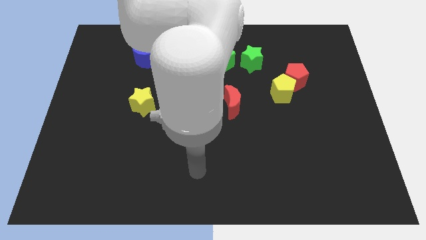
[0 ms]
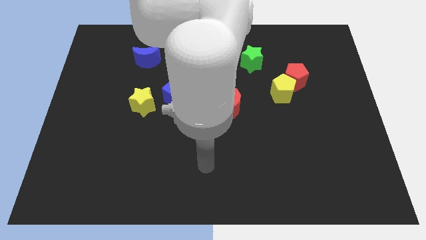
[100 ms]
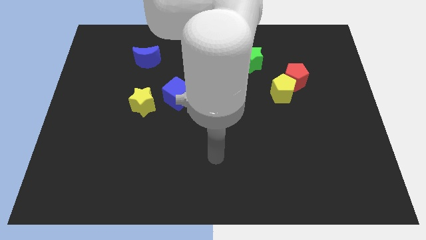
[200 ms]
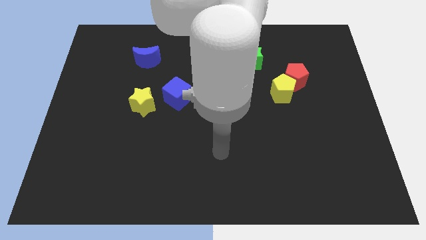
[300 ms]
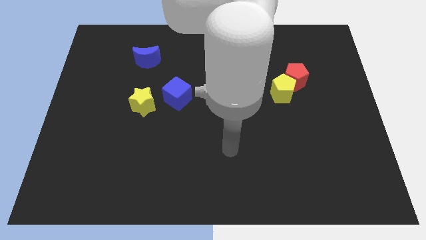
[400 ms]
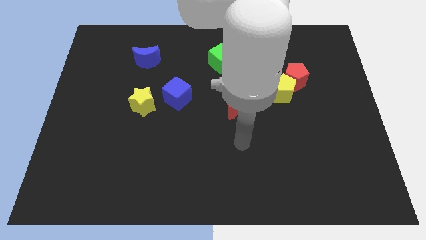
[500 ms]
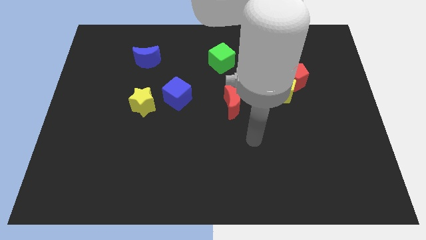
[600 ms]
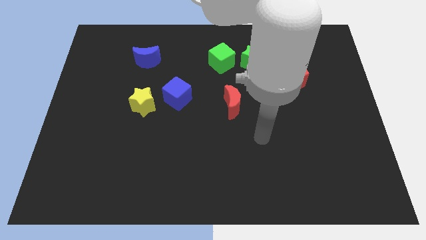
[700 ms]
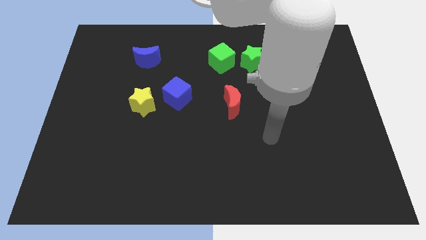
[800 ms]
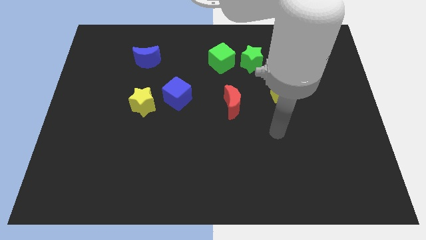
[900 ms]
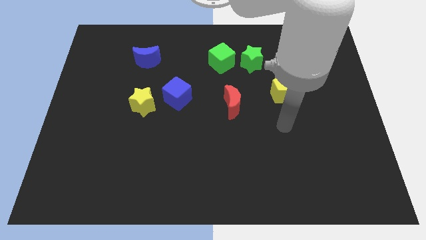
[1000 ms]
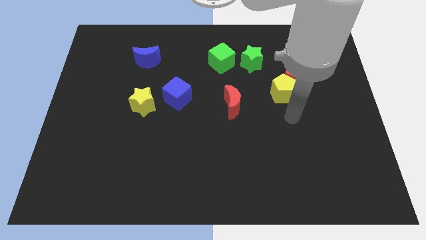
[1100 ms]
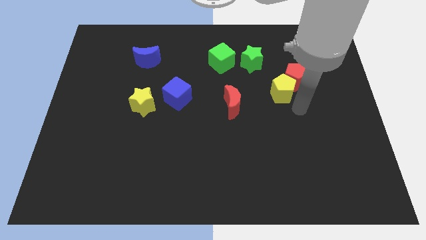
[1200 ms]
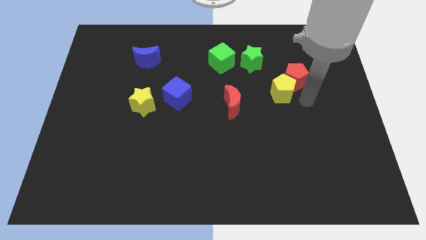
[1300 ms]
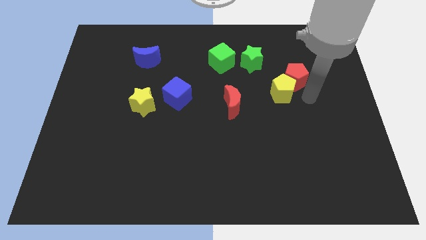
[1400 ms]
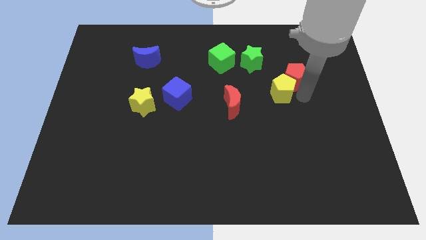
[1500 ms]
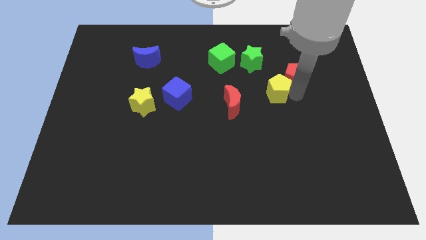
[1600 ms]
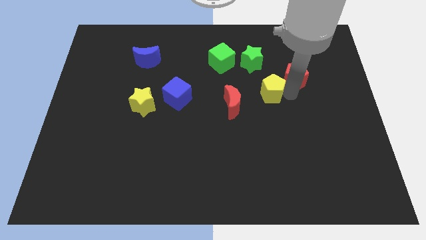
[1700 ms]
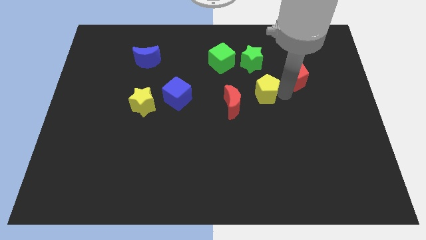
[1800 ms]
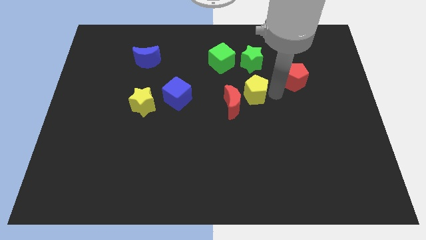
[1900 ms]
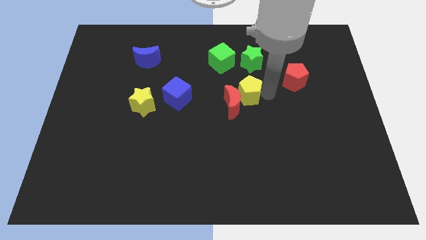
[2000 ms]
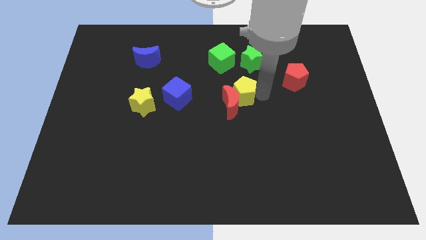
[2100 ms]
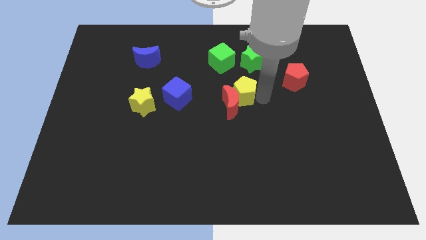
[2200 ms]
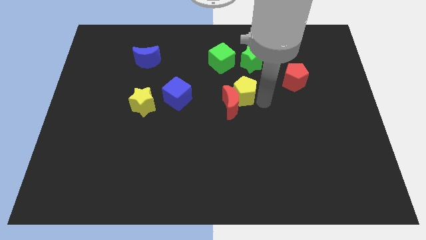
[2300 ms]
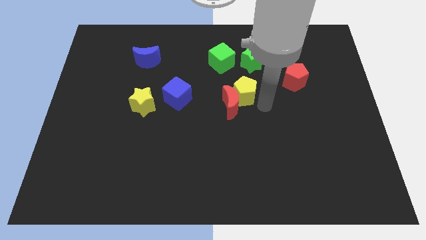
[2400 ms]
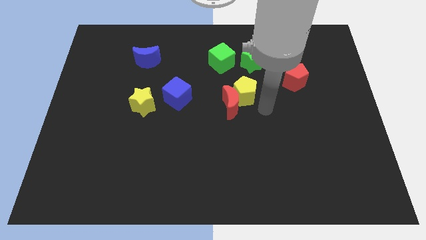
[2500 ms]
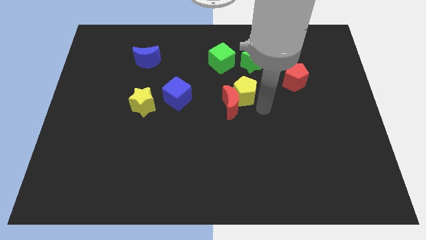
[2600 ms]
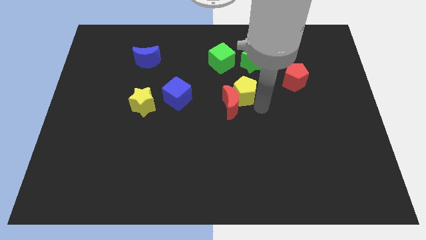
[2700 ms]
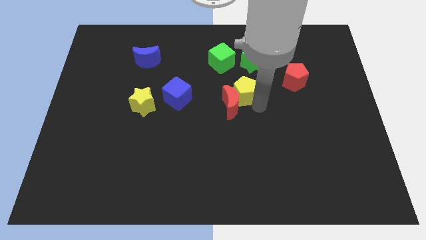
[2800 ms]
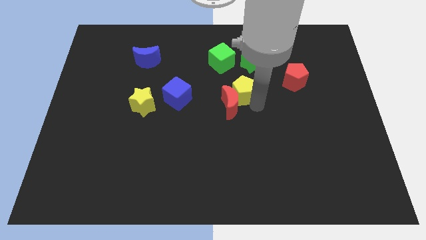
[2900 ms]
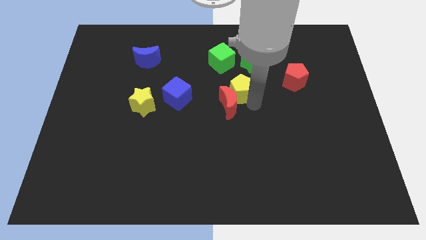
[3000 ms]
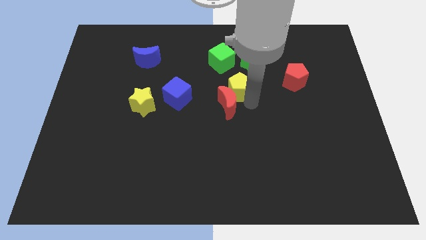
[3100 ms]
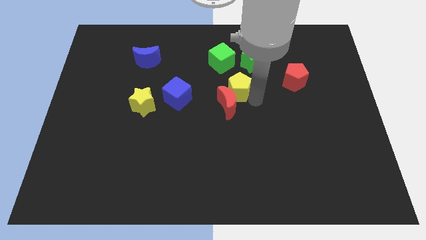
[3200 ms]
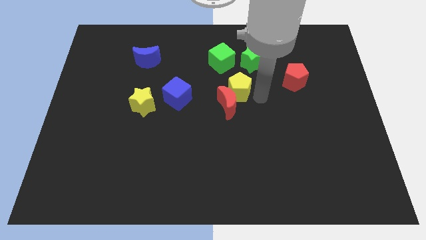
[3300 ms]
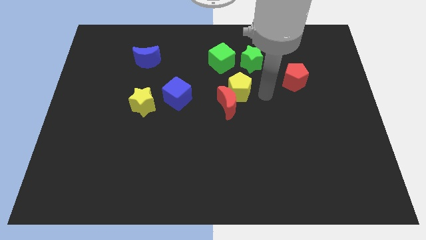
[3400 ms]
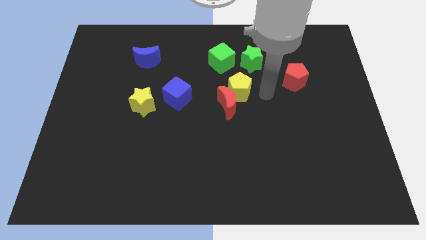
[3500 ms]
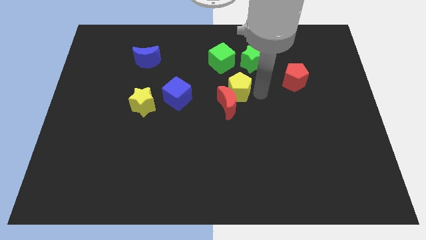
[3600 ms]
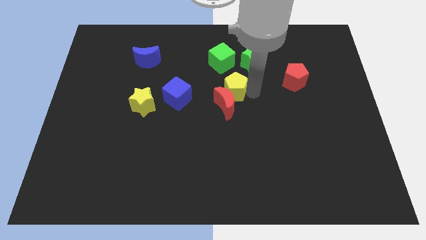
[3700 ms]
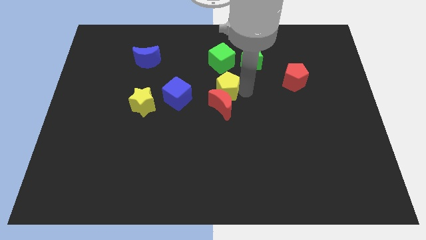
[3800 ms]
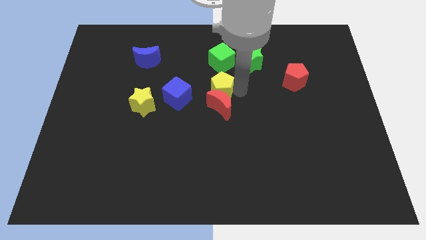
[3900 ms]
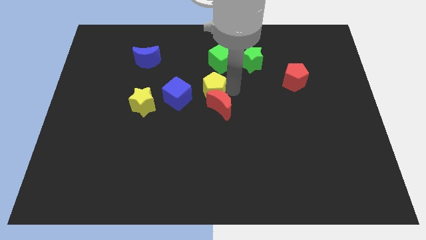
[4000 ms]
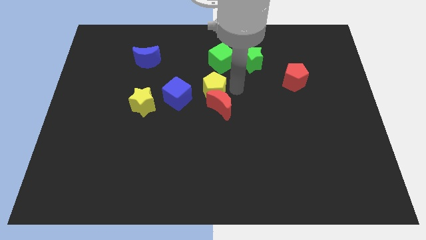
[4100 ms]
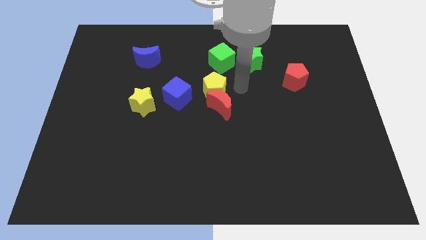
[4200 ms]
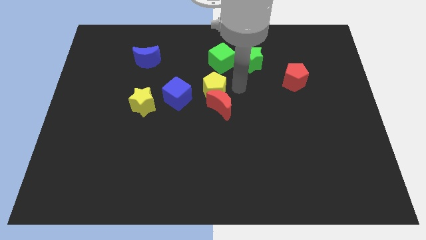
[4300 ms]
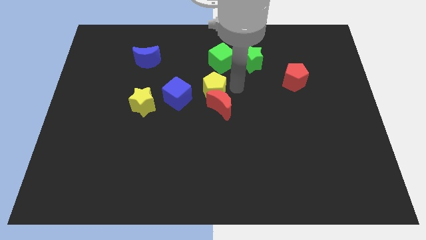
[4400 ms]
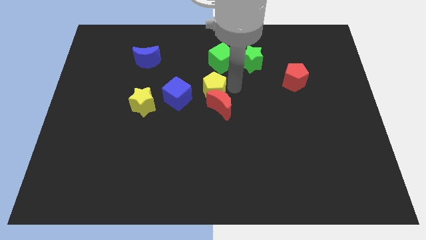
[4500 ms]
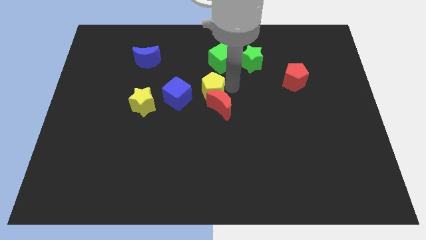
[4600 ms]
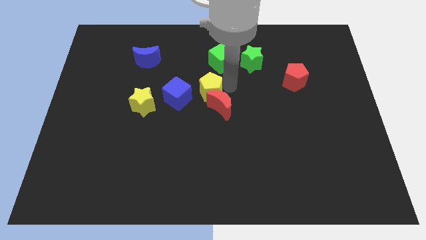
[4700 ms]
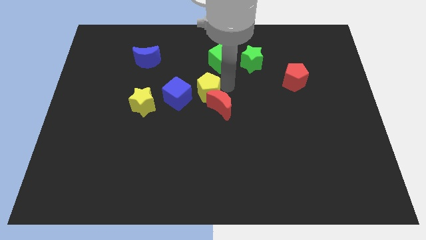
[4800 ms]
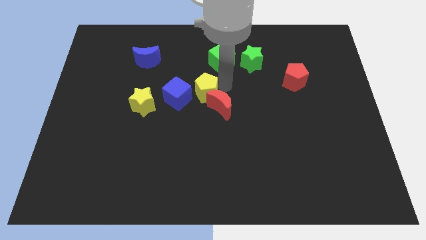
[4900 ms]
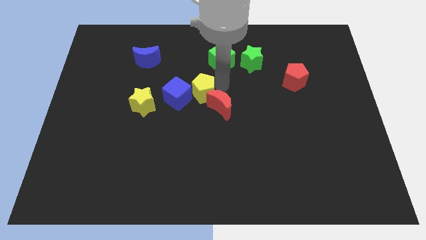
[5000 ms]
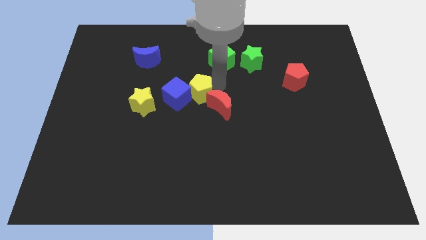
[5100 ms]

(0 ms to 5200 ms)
push the yellow pentagon towards the blue cube

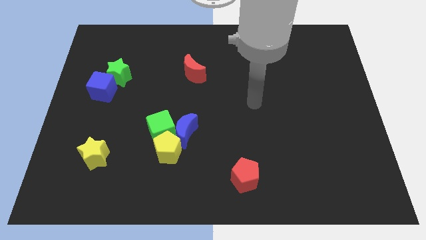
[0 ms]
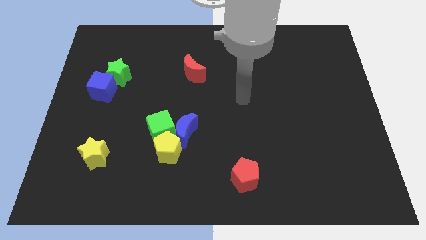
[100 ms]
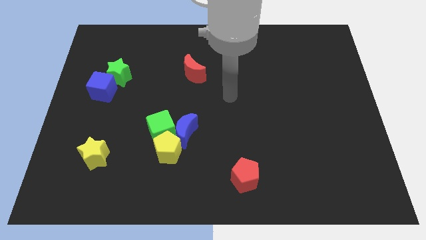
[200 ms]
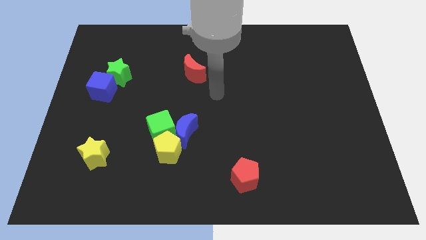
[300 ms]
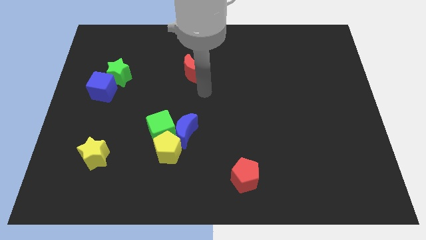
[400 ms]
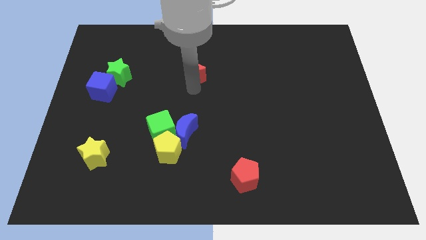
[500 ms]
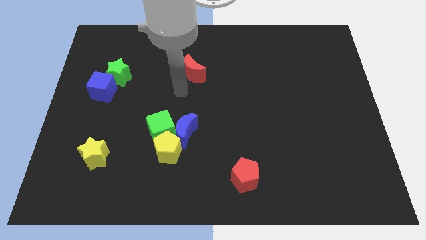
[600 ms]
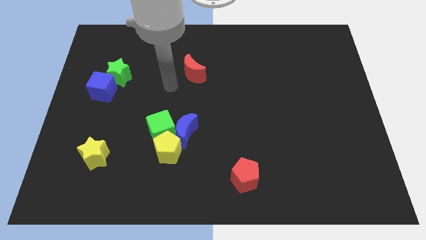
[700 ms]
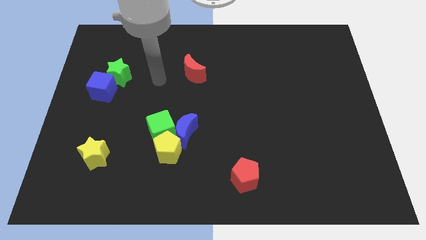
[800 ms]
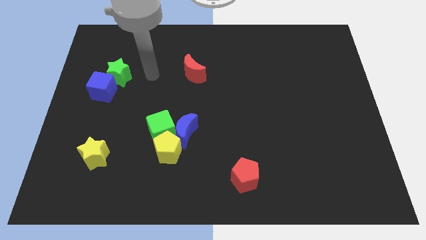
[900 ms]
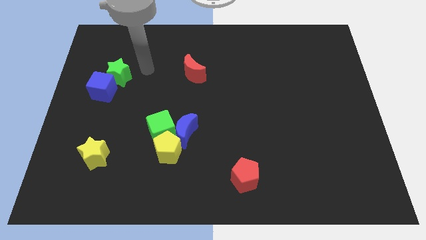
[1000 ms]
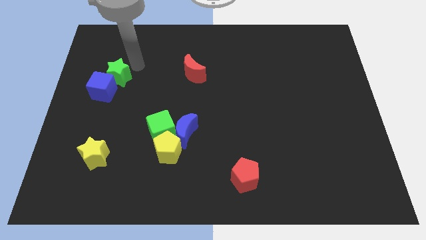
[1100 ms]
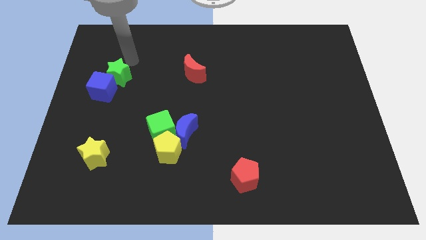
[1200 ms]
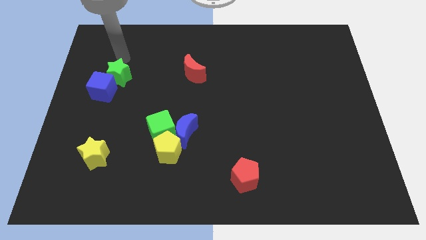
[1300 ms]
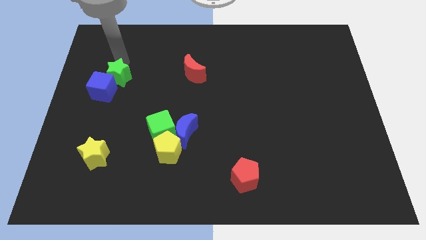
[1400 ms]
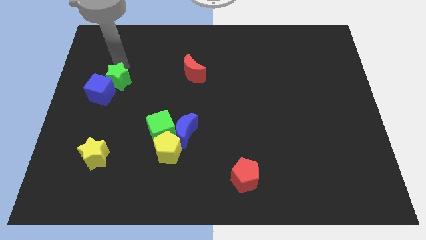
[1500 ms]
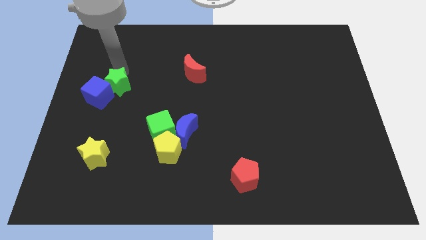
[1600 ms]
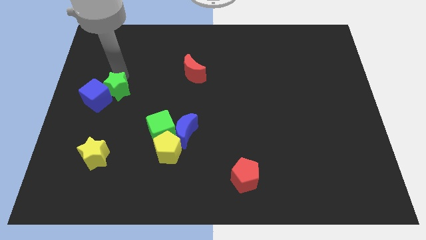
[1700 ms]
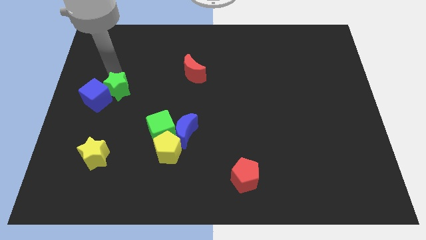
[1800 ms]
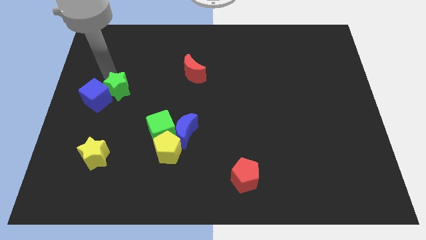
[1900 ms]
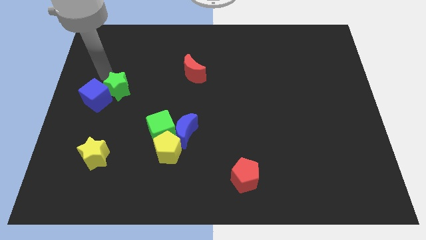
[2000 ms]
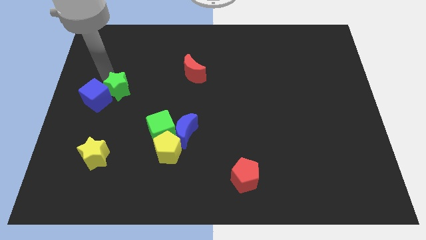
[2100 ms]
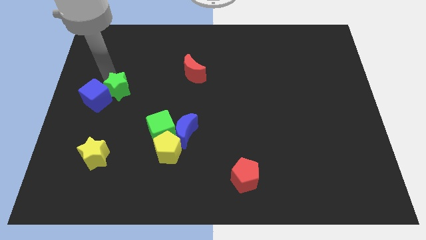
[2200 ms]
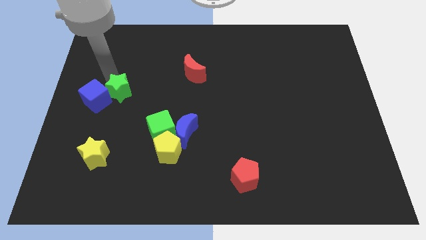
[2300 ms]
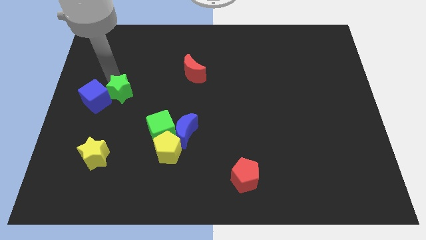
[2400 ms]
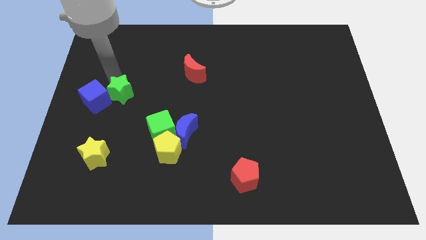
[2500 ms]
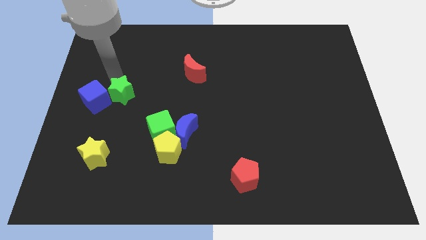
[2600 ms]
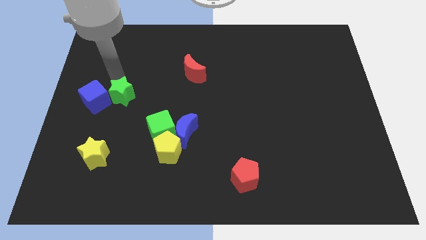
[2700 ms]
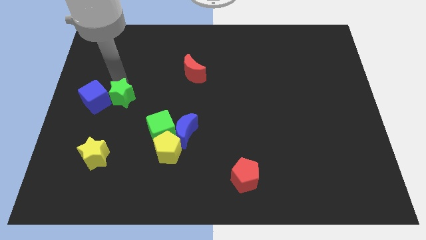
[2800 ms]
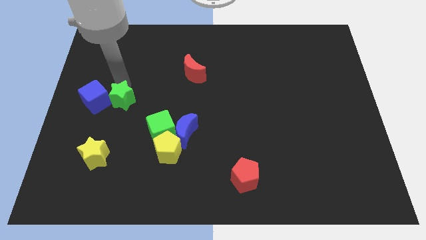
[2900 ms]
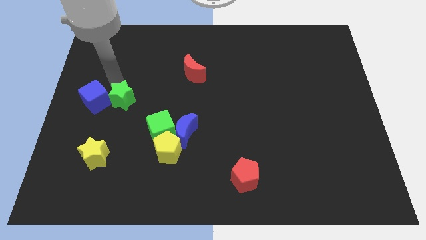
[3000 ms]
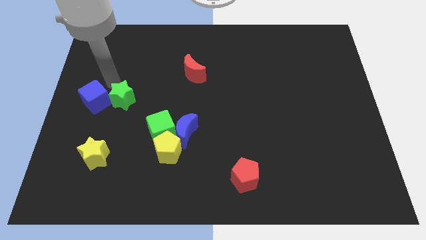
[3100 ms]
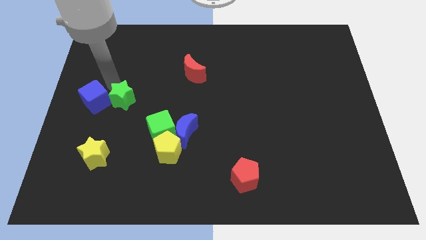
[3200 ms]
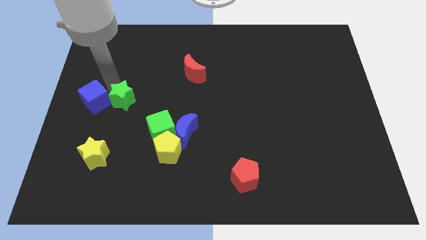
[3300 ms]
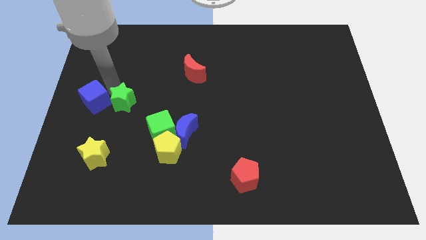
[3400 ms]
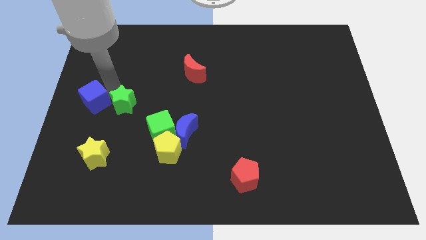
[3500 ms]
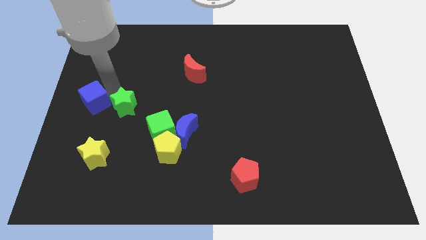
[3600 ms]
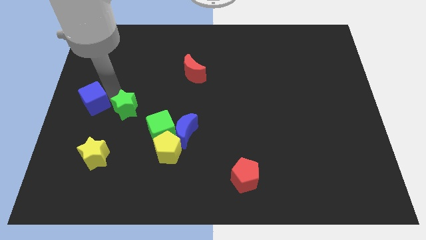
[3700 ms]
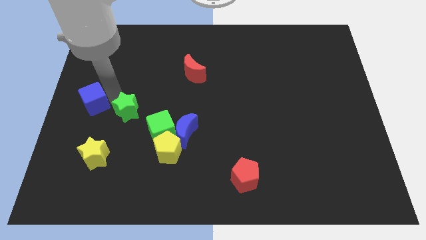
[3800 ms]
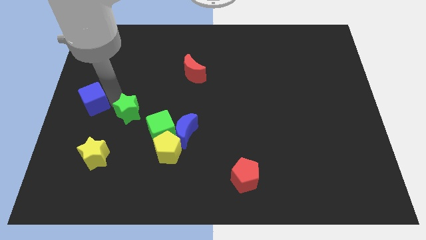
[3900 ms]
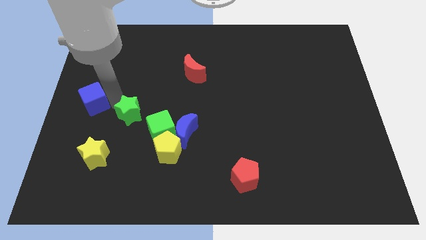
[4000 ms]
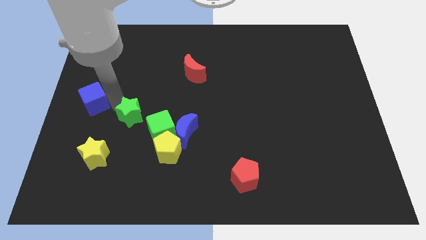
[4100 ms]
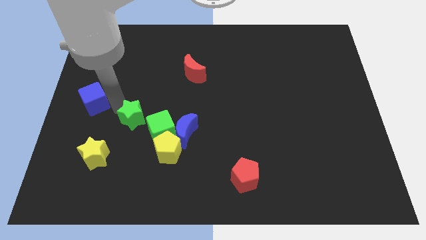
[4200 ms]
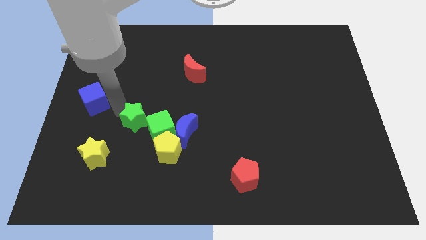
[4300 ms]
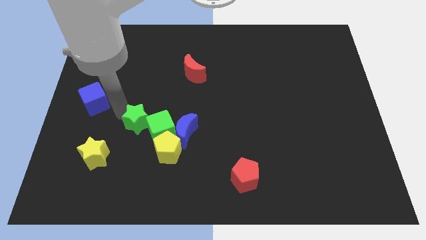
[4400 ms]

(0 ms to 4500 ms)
slide the green star next to the green cube
